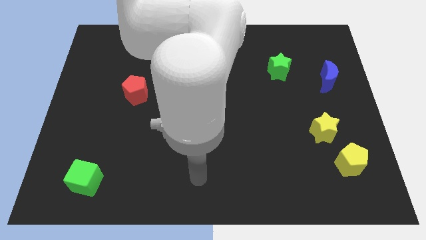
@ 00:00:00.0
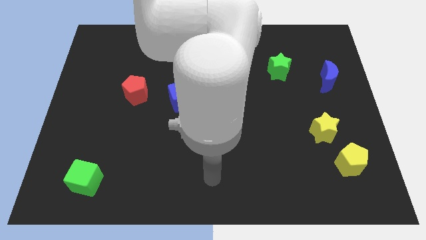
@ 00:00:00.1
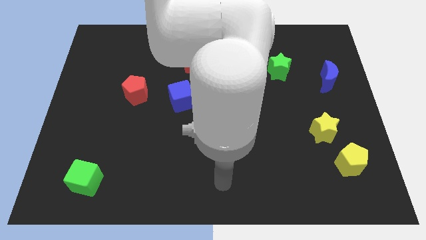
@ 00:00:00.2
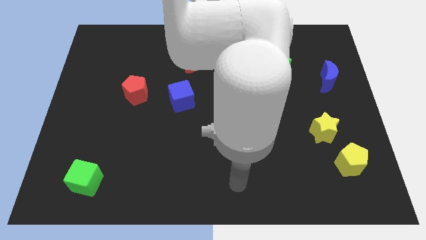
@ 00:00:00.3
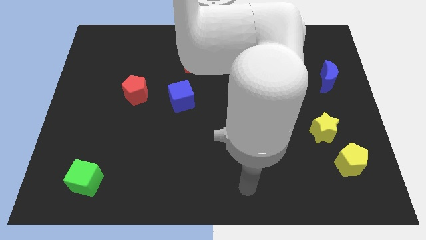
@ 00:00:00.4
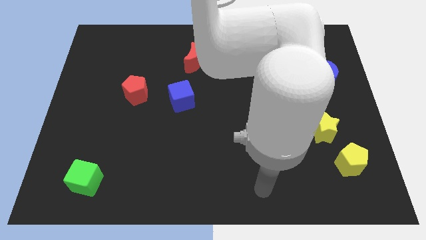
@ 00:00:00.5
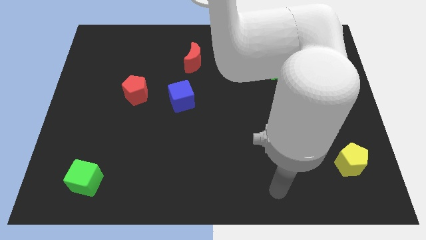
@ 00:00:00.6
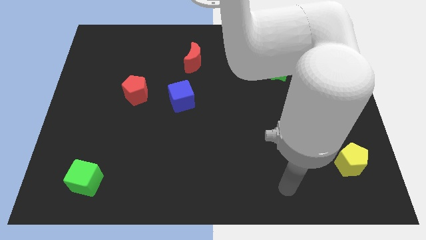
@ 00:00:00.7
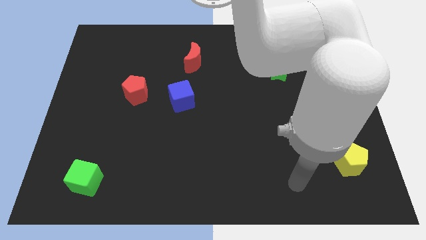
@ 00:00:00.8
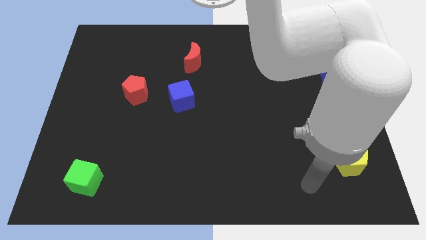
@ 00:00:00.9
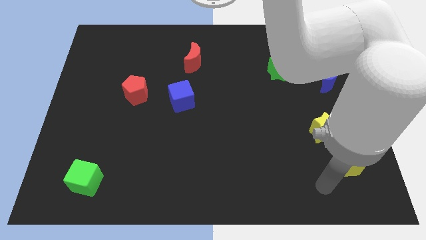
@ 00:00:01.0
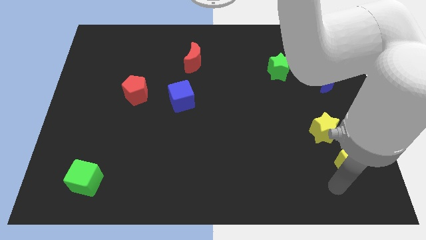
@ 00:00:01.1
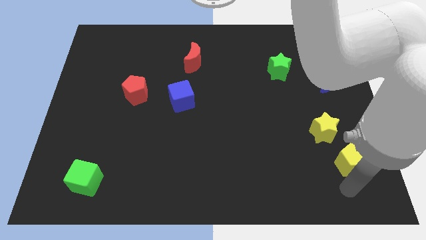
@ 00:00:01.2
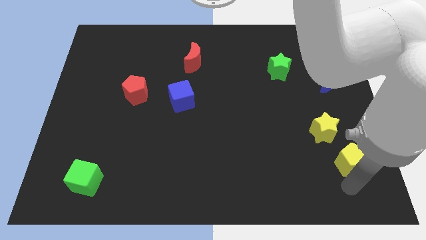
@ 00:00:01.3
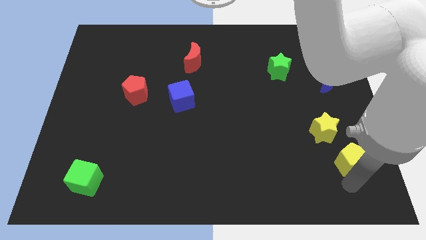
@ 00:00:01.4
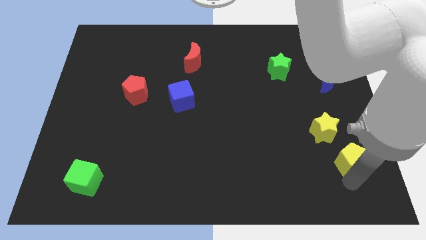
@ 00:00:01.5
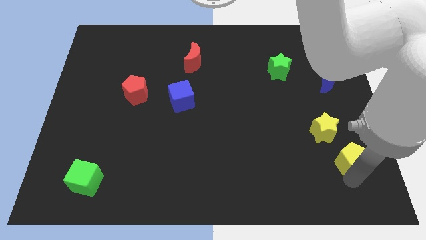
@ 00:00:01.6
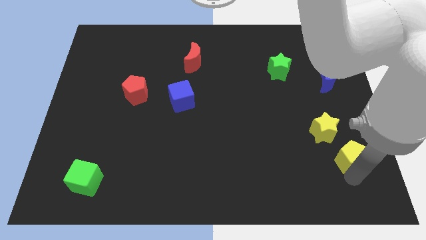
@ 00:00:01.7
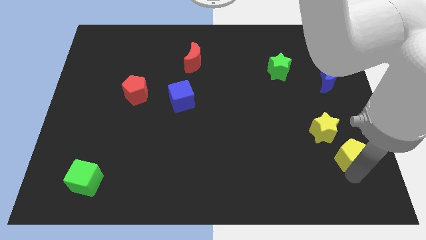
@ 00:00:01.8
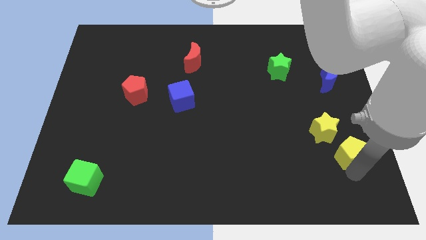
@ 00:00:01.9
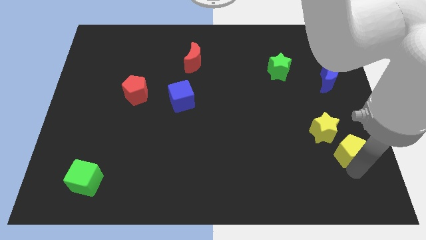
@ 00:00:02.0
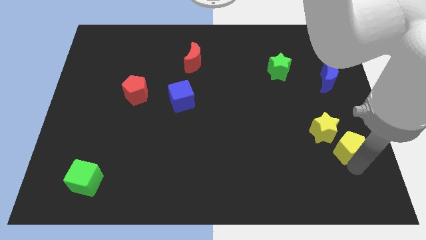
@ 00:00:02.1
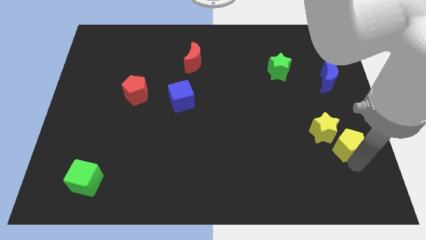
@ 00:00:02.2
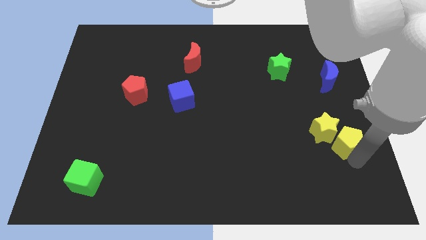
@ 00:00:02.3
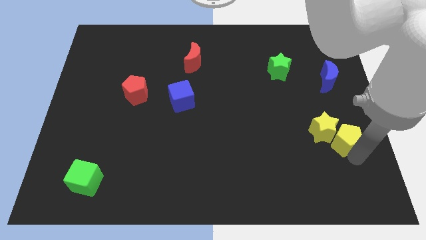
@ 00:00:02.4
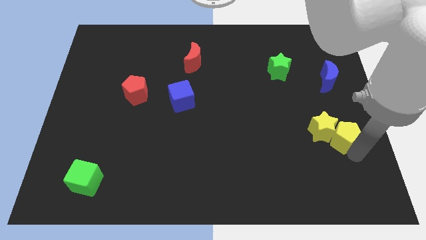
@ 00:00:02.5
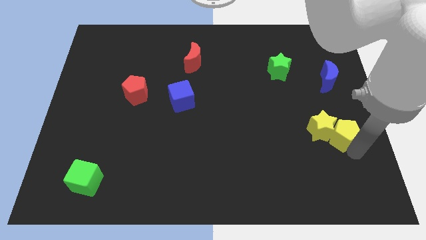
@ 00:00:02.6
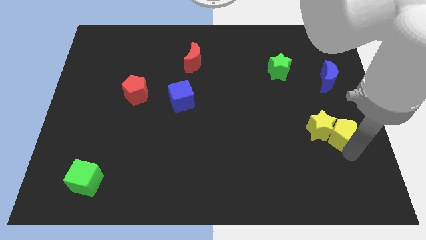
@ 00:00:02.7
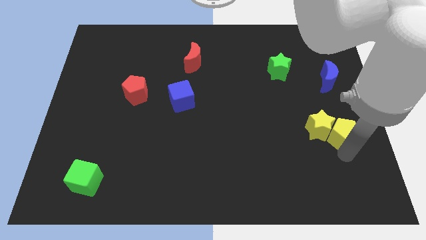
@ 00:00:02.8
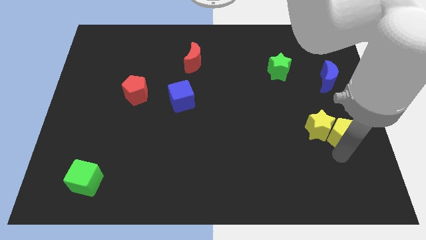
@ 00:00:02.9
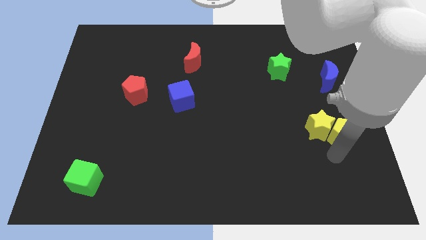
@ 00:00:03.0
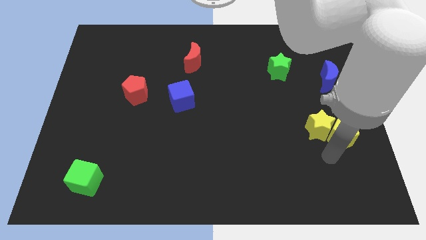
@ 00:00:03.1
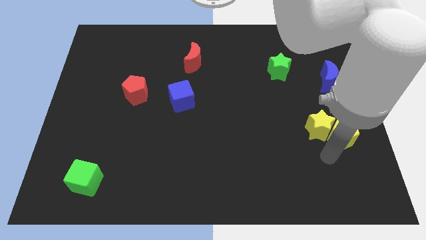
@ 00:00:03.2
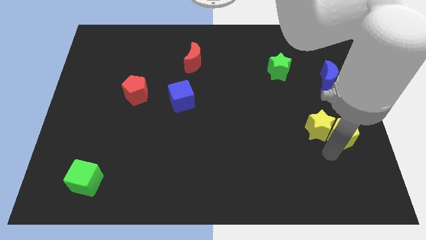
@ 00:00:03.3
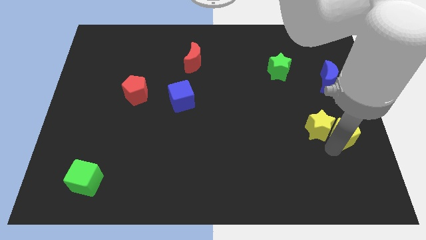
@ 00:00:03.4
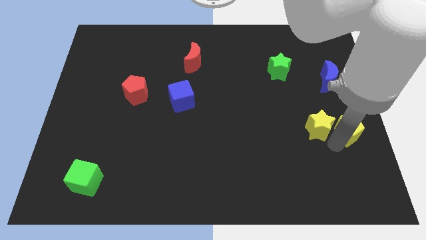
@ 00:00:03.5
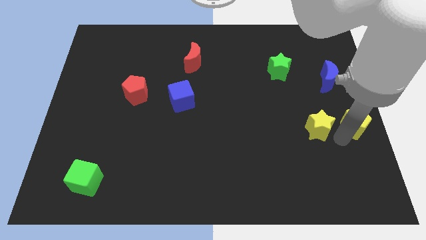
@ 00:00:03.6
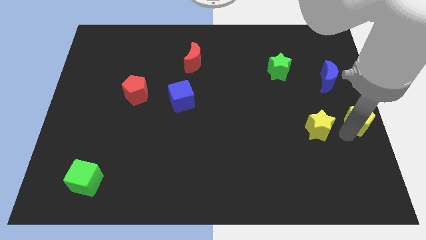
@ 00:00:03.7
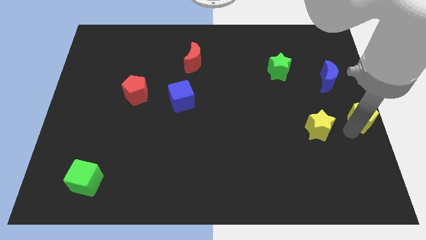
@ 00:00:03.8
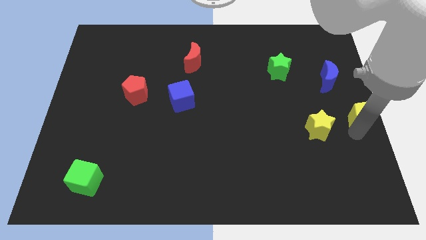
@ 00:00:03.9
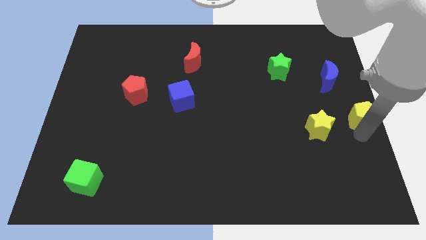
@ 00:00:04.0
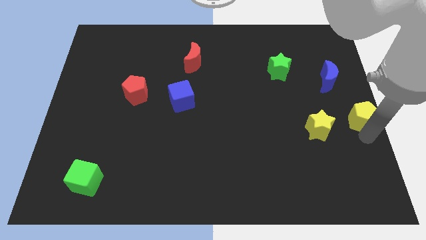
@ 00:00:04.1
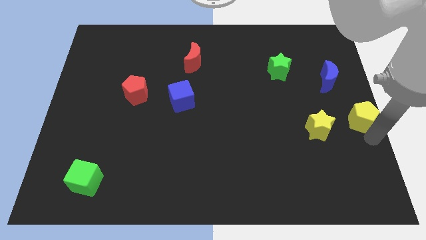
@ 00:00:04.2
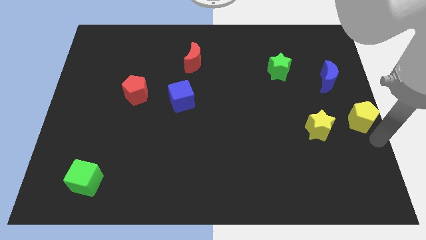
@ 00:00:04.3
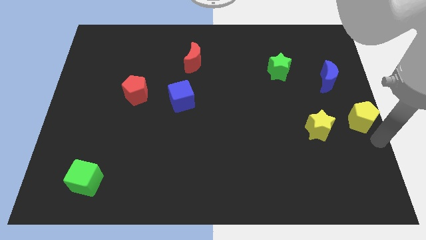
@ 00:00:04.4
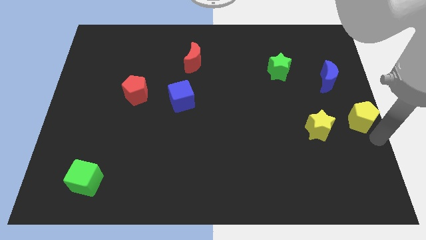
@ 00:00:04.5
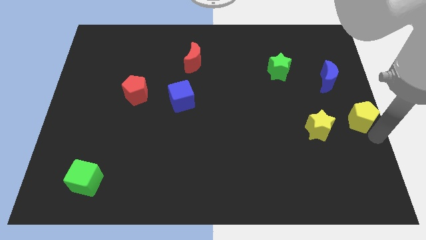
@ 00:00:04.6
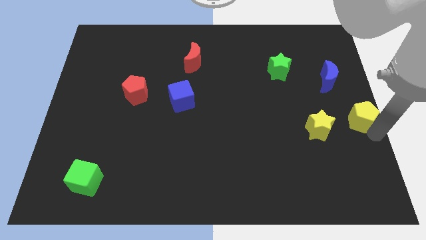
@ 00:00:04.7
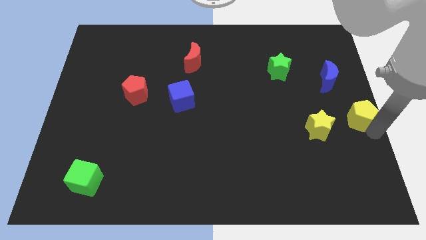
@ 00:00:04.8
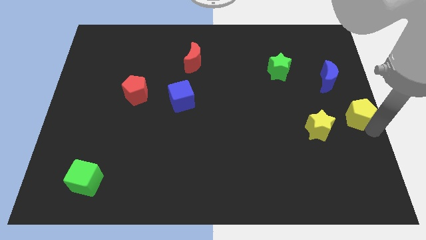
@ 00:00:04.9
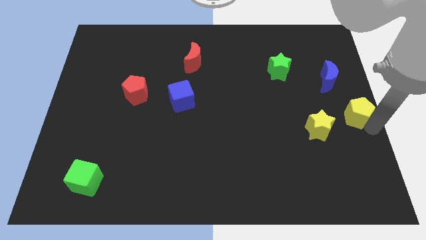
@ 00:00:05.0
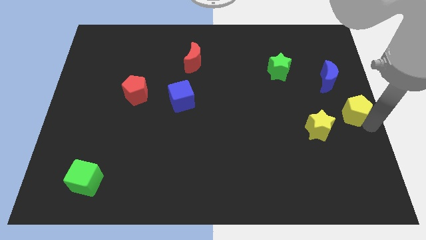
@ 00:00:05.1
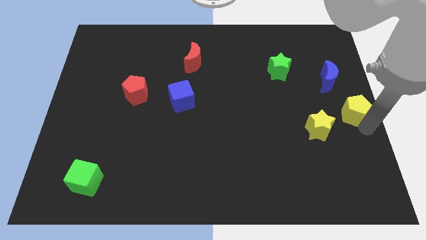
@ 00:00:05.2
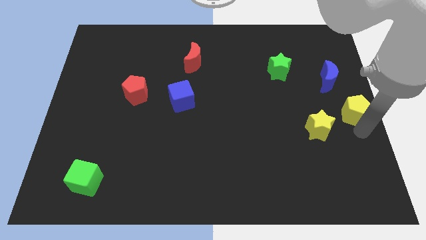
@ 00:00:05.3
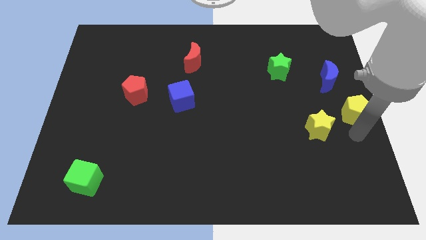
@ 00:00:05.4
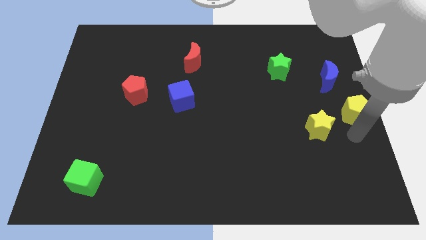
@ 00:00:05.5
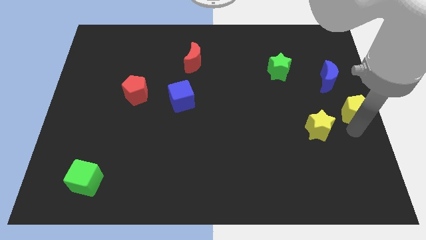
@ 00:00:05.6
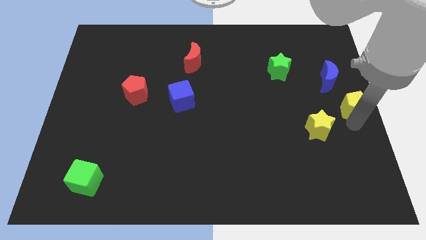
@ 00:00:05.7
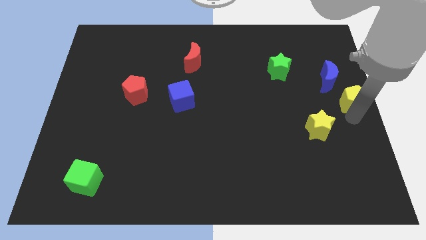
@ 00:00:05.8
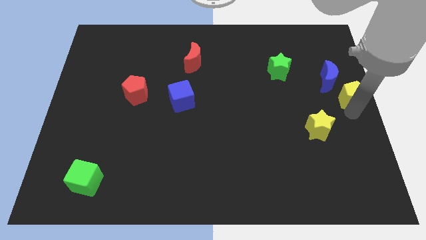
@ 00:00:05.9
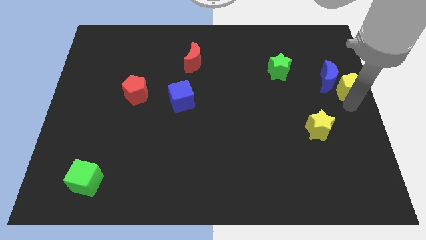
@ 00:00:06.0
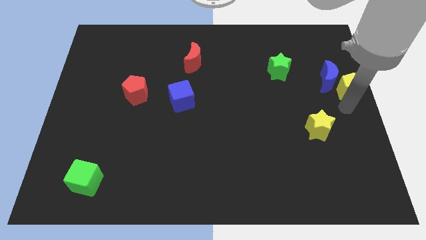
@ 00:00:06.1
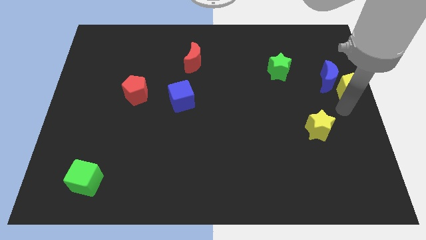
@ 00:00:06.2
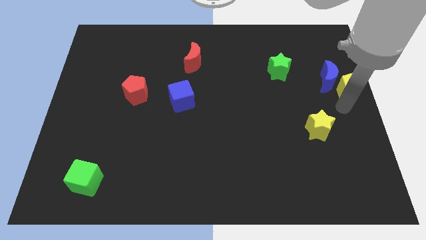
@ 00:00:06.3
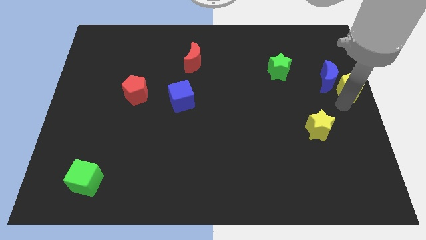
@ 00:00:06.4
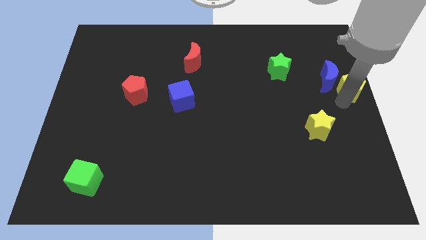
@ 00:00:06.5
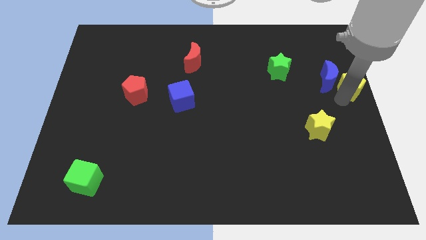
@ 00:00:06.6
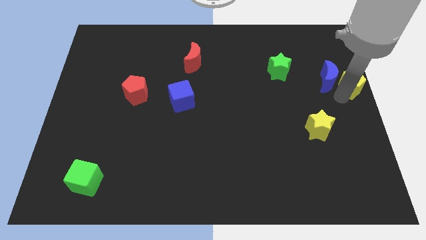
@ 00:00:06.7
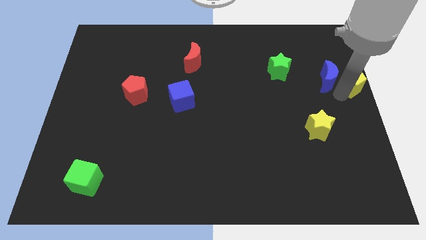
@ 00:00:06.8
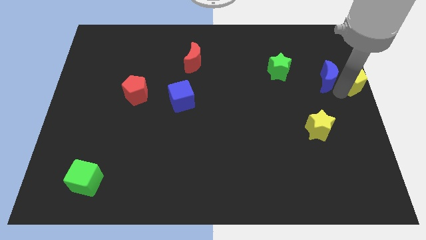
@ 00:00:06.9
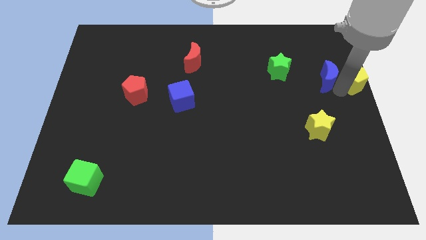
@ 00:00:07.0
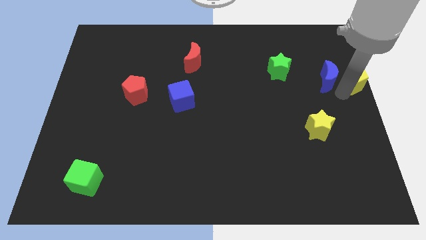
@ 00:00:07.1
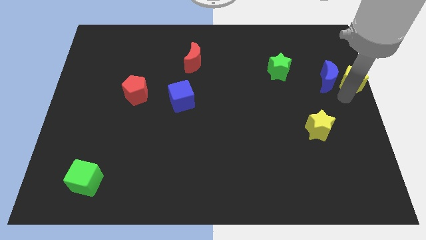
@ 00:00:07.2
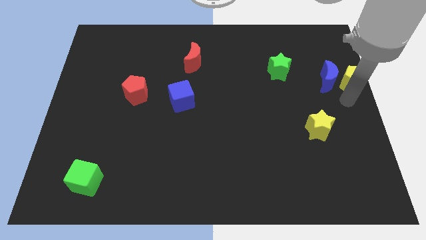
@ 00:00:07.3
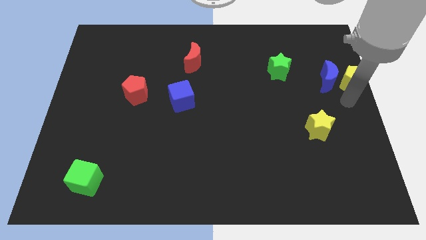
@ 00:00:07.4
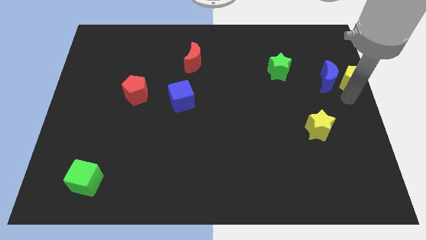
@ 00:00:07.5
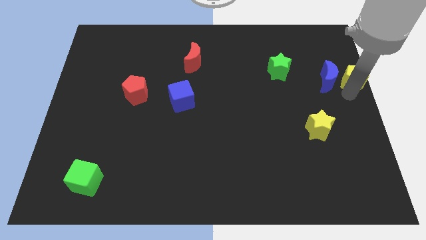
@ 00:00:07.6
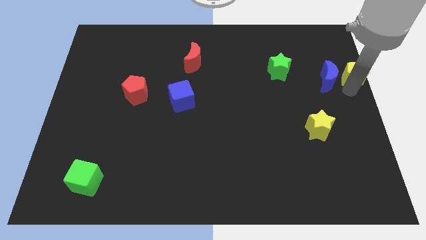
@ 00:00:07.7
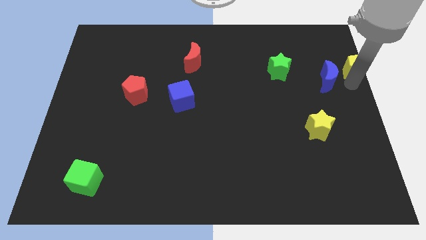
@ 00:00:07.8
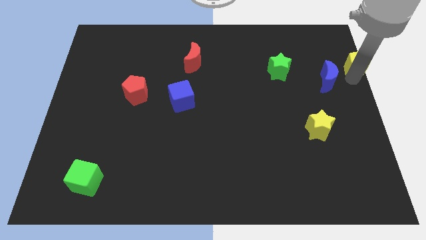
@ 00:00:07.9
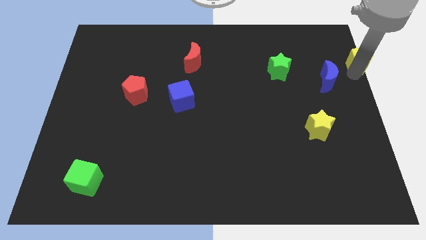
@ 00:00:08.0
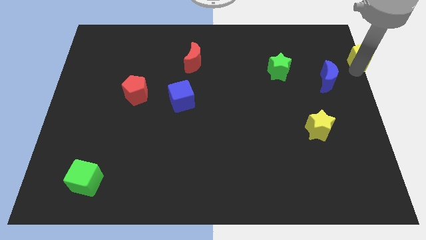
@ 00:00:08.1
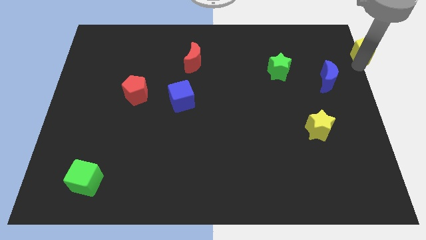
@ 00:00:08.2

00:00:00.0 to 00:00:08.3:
push the yellow pentagon to the top right of the board
